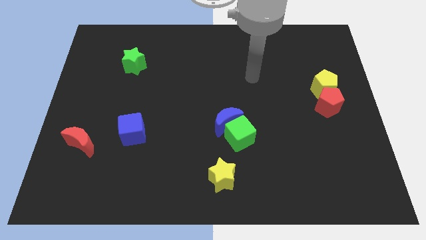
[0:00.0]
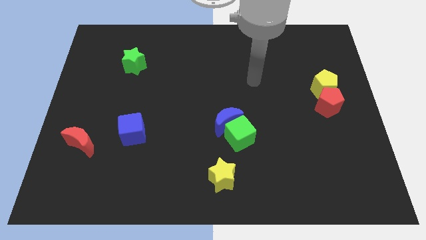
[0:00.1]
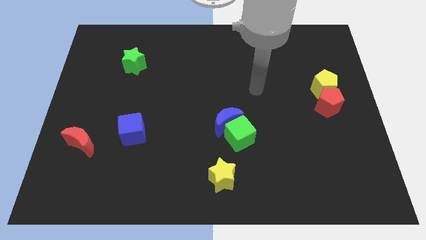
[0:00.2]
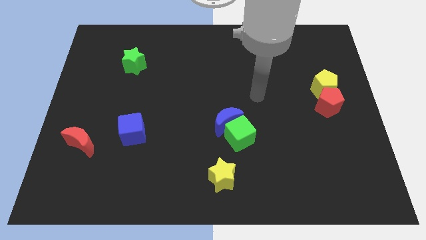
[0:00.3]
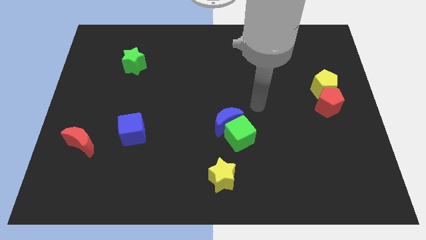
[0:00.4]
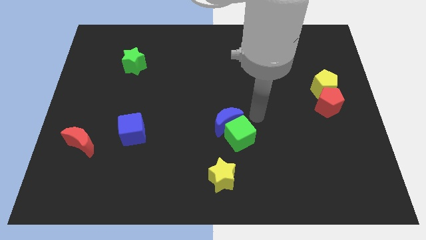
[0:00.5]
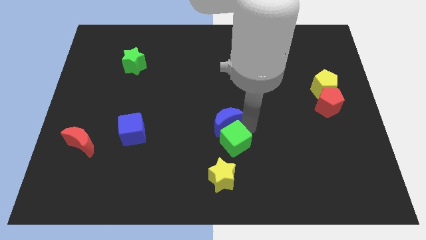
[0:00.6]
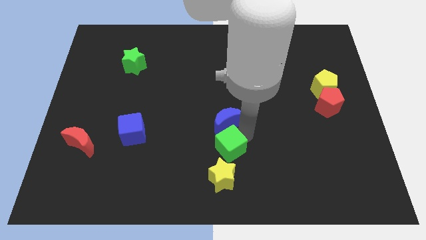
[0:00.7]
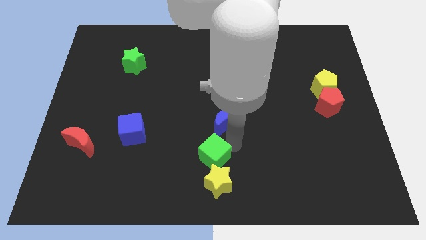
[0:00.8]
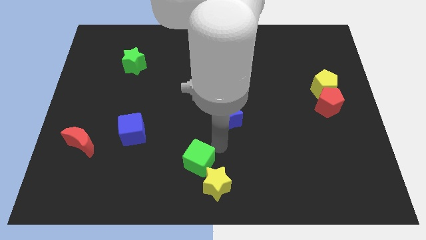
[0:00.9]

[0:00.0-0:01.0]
separate the blue moon from the green cube

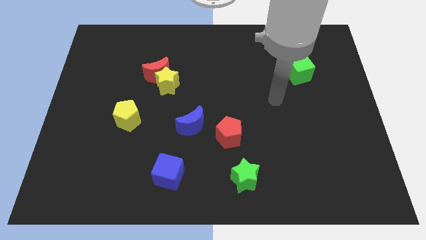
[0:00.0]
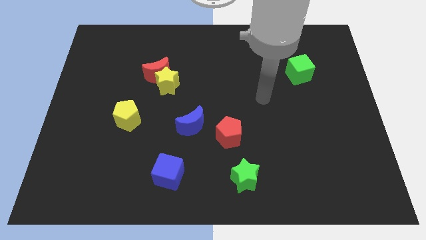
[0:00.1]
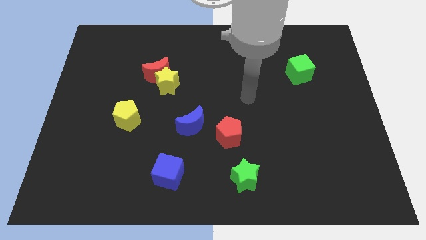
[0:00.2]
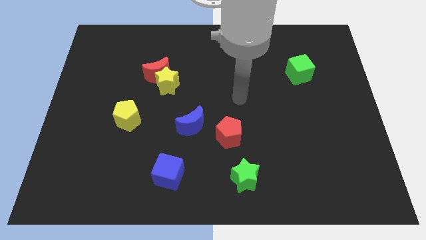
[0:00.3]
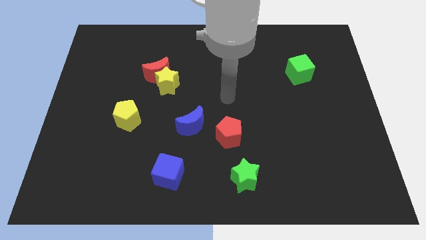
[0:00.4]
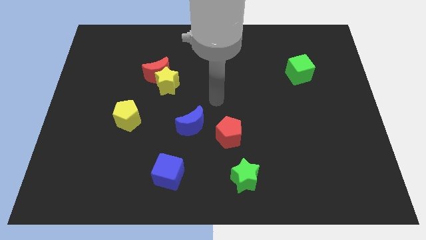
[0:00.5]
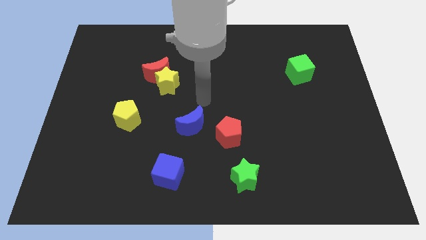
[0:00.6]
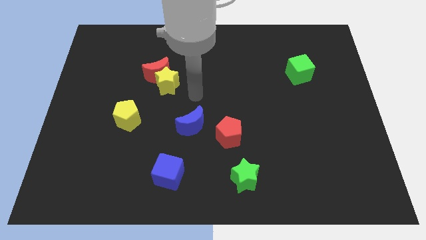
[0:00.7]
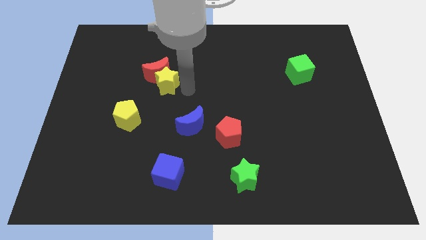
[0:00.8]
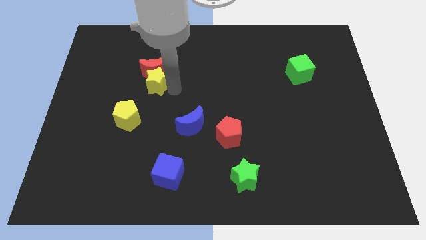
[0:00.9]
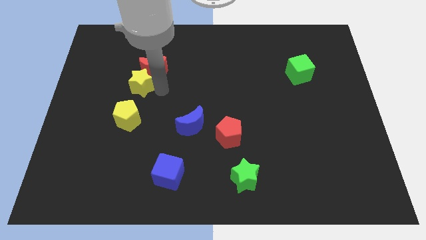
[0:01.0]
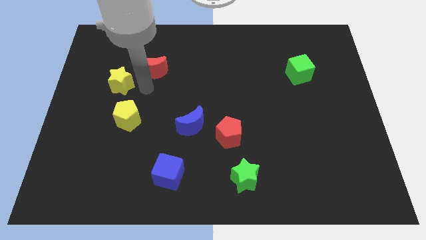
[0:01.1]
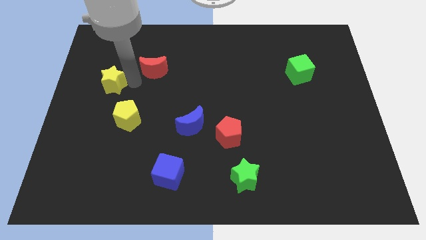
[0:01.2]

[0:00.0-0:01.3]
pull the red moon apart from the yellow star

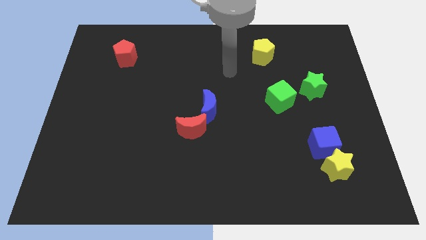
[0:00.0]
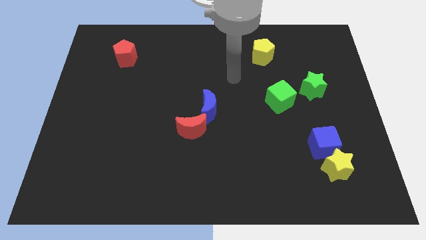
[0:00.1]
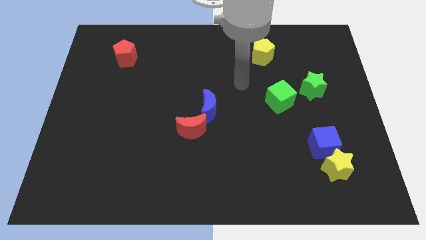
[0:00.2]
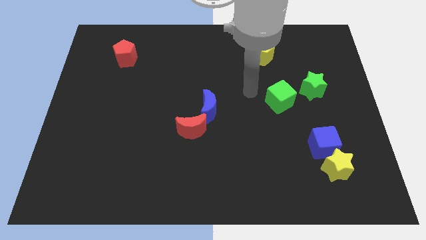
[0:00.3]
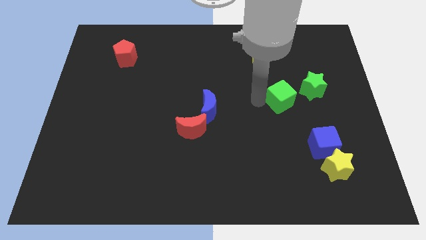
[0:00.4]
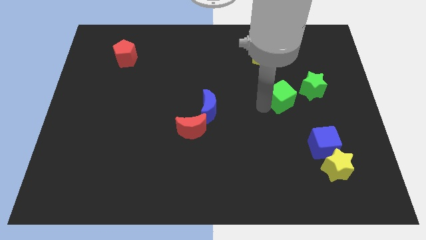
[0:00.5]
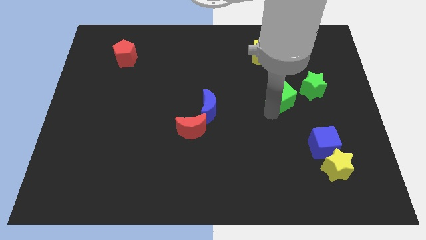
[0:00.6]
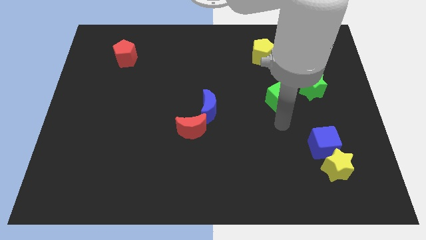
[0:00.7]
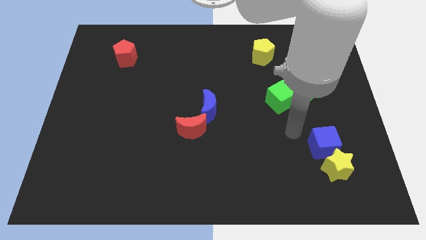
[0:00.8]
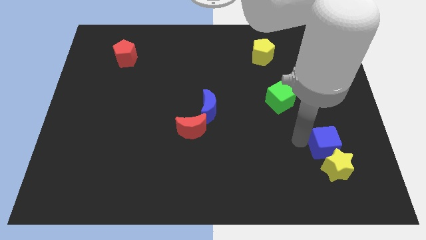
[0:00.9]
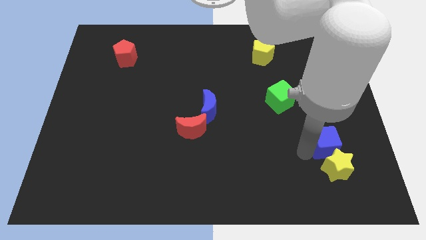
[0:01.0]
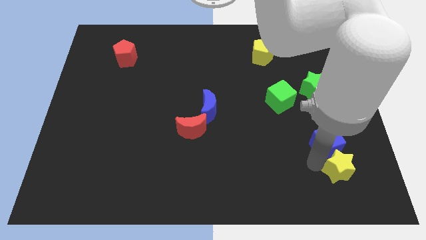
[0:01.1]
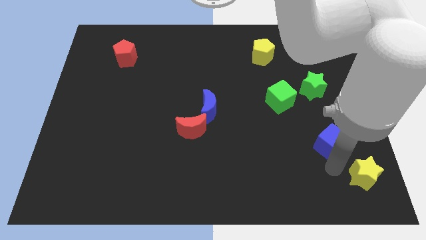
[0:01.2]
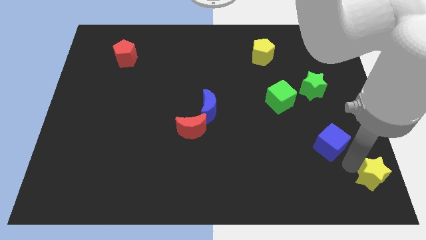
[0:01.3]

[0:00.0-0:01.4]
move the blue cube away from the yellow star

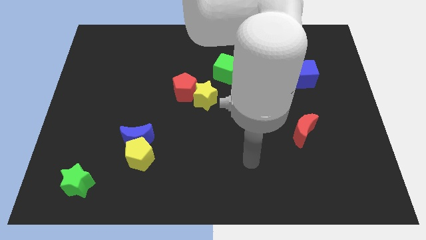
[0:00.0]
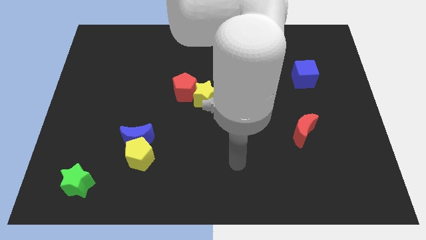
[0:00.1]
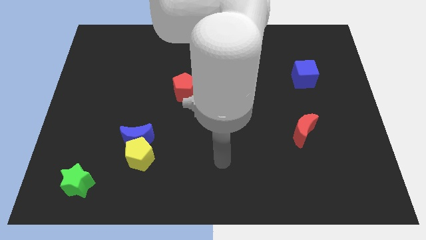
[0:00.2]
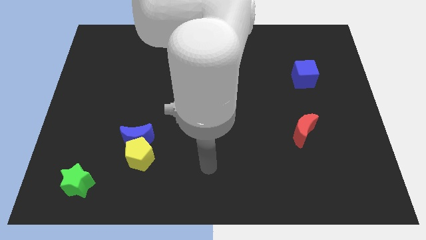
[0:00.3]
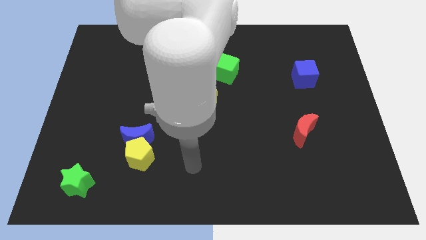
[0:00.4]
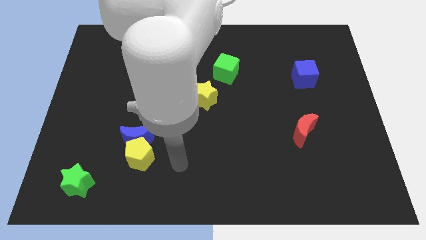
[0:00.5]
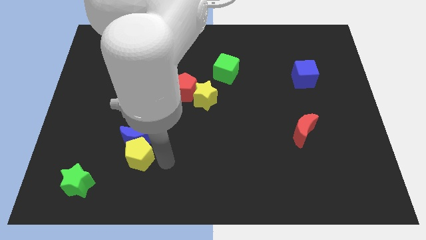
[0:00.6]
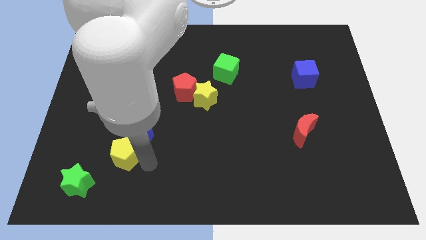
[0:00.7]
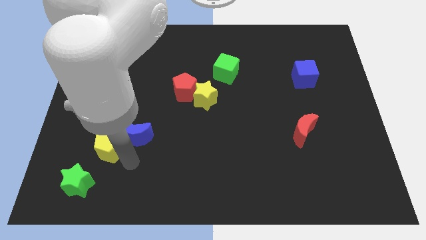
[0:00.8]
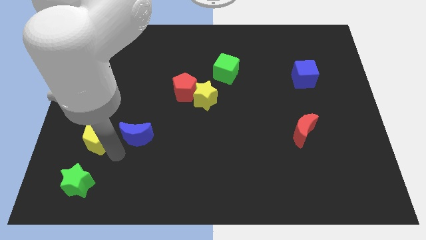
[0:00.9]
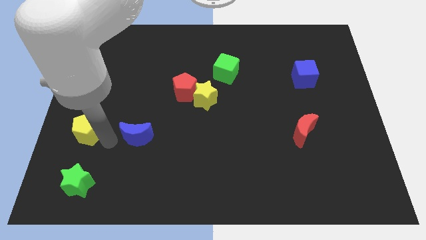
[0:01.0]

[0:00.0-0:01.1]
separate the blue moon from the yellow pentagon

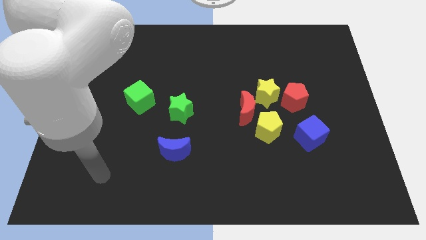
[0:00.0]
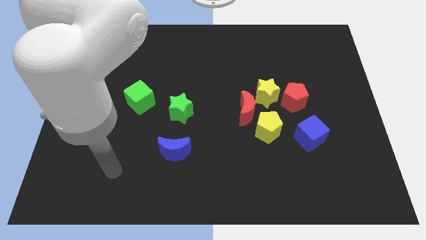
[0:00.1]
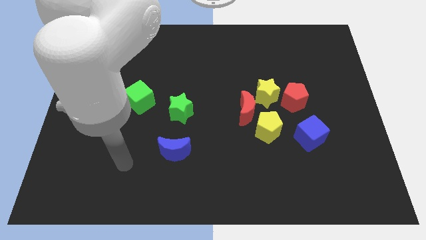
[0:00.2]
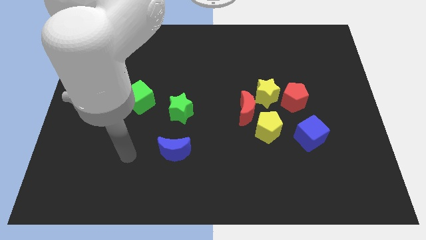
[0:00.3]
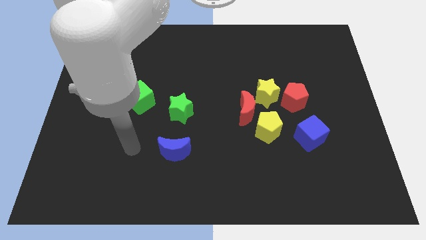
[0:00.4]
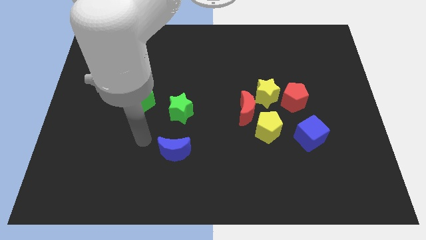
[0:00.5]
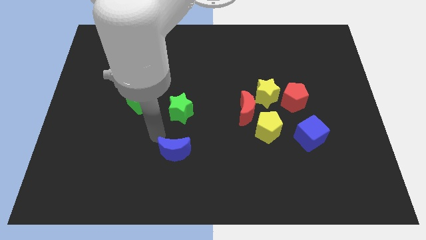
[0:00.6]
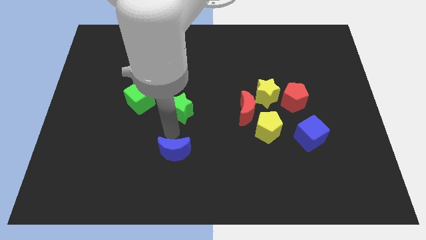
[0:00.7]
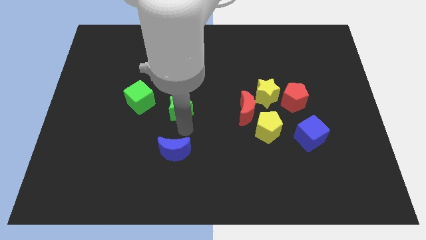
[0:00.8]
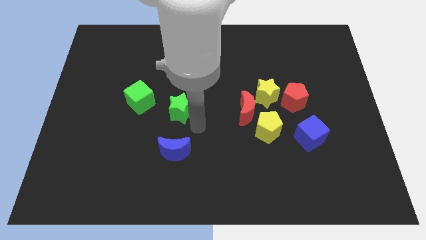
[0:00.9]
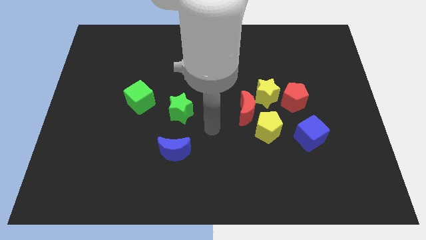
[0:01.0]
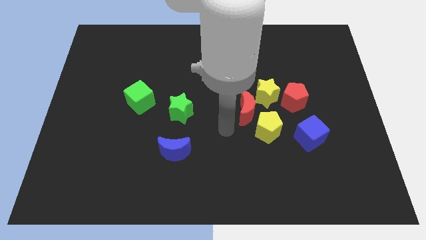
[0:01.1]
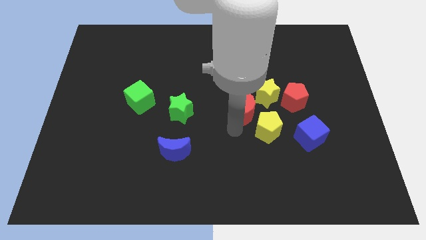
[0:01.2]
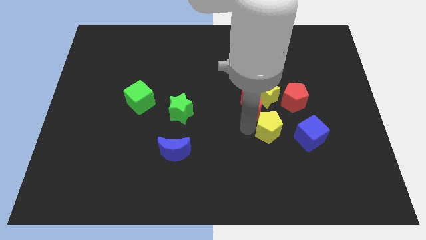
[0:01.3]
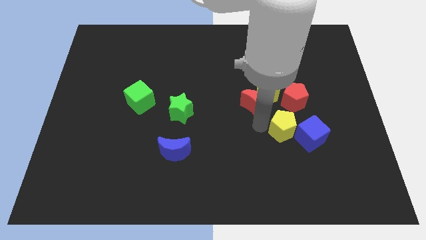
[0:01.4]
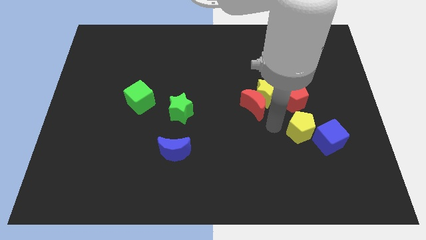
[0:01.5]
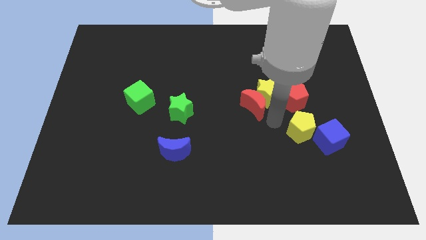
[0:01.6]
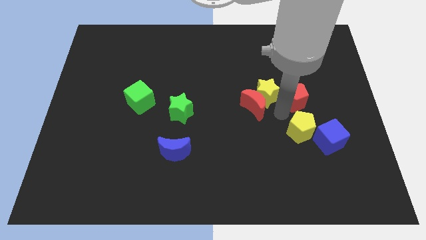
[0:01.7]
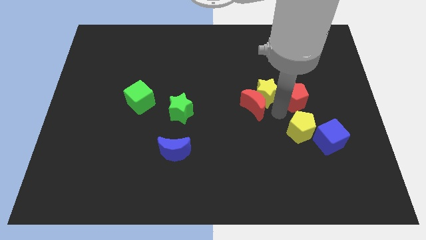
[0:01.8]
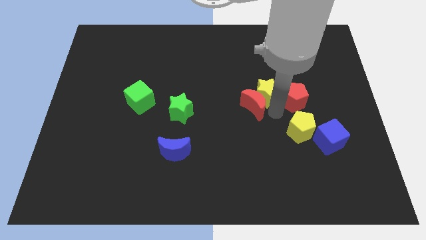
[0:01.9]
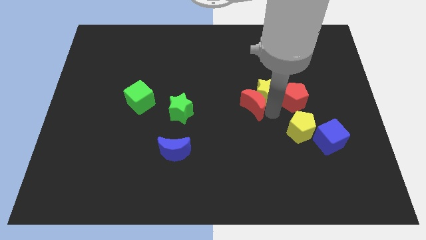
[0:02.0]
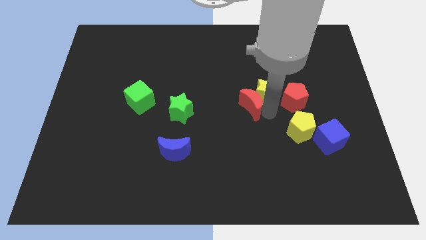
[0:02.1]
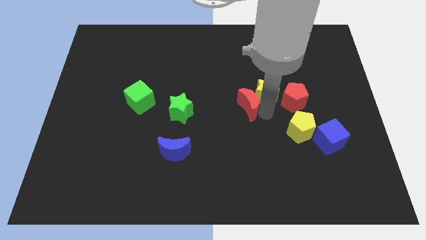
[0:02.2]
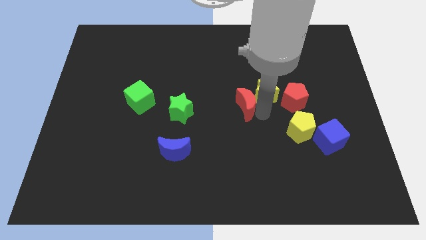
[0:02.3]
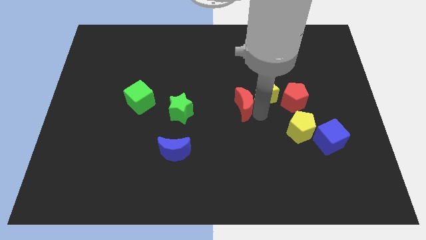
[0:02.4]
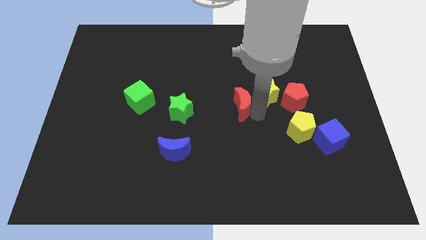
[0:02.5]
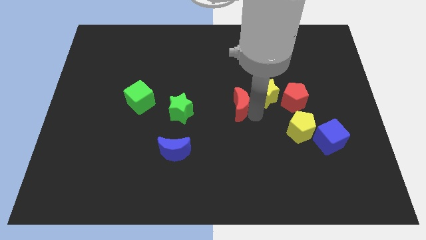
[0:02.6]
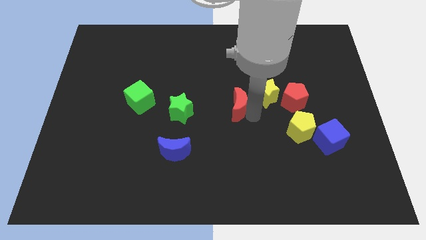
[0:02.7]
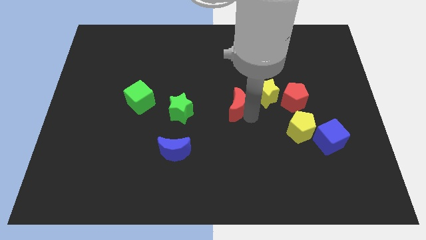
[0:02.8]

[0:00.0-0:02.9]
move the red moon away from the yellow star and yellow pentagon

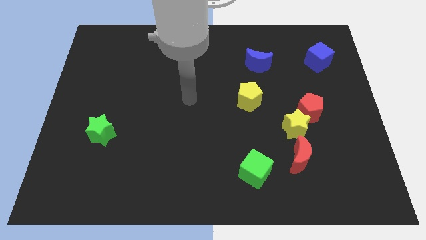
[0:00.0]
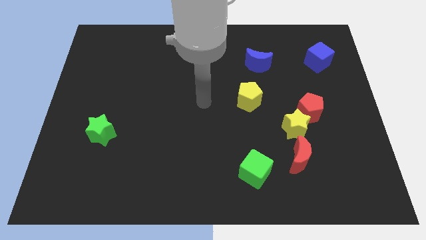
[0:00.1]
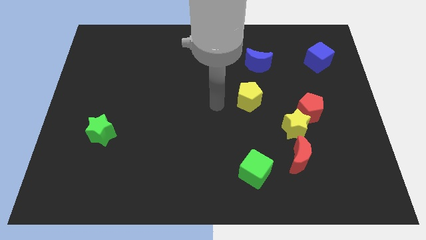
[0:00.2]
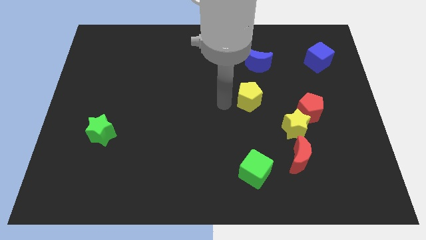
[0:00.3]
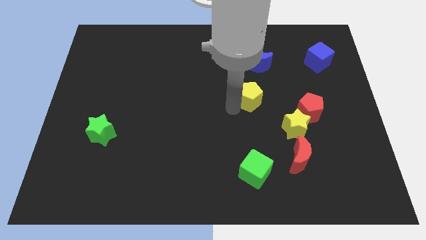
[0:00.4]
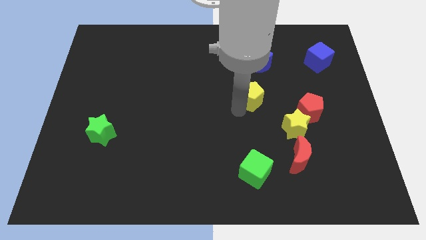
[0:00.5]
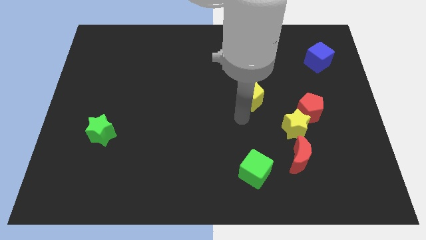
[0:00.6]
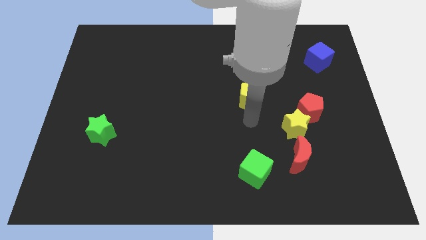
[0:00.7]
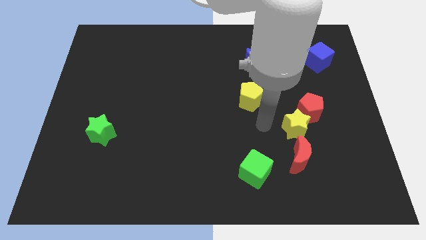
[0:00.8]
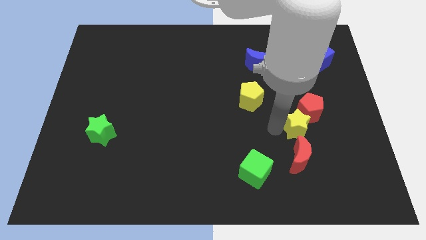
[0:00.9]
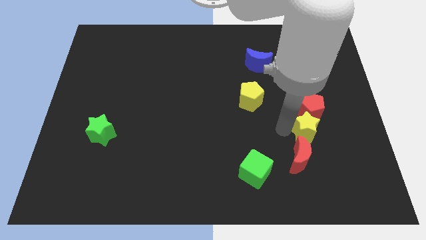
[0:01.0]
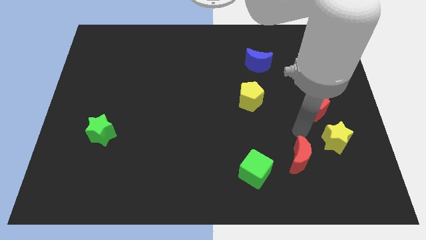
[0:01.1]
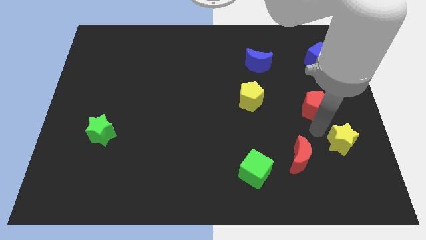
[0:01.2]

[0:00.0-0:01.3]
pull the red pentagon apart from the yellow star

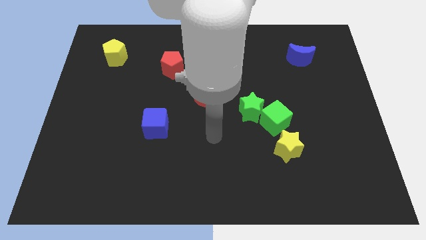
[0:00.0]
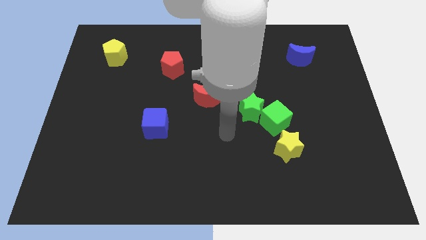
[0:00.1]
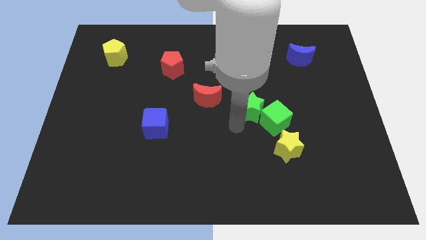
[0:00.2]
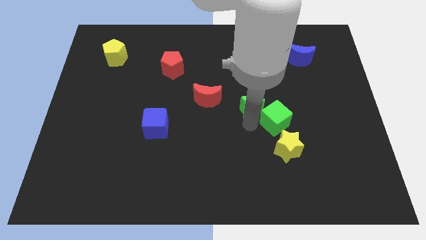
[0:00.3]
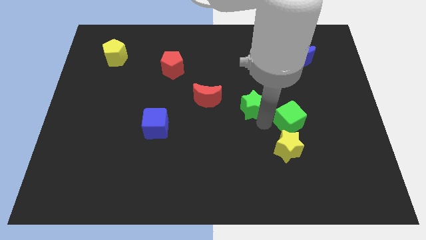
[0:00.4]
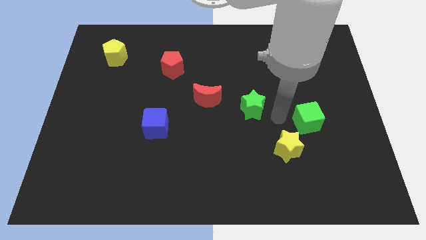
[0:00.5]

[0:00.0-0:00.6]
pull the green star apart from the green cube
